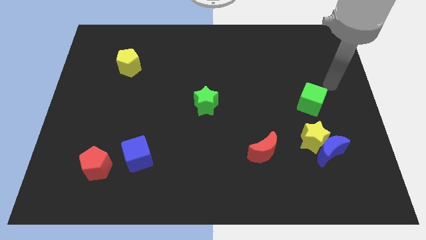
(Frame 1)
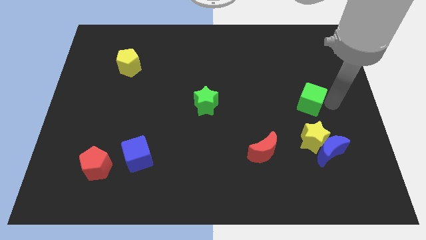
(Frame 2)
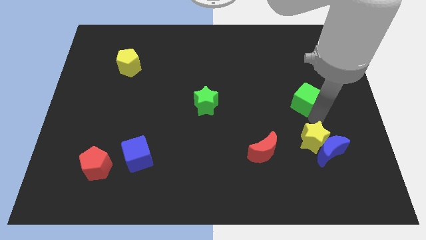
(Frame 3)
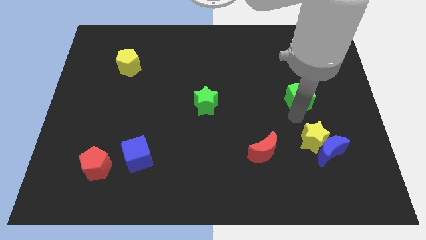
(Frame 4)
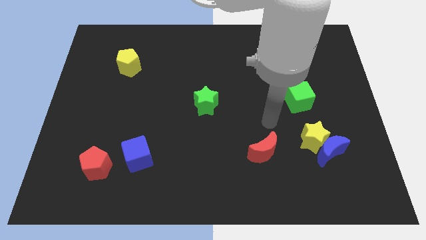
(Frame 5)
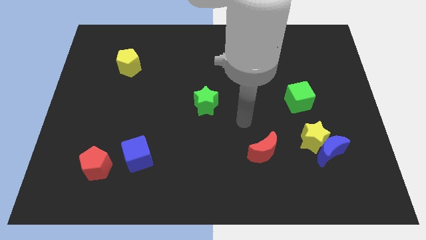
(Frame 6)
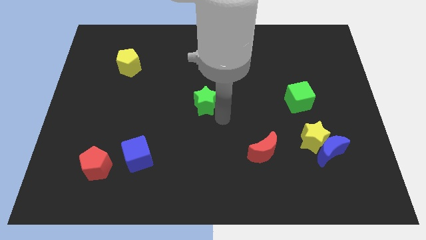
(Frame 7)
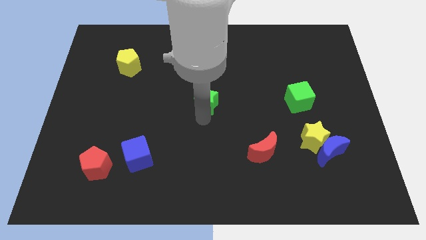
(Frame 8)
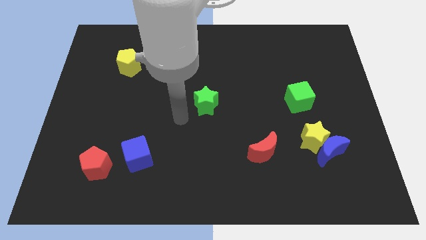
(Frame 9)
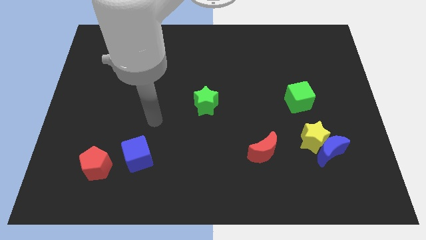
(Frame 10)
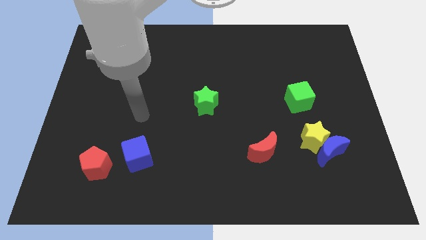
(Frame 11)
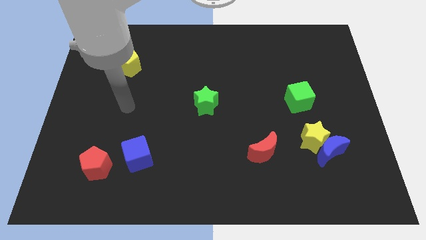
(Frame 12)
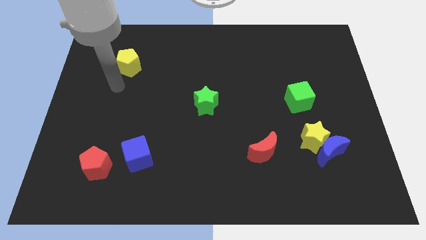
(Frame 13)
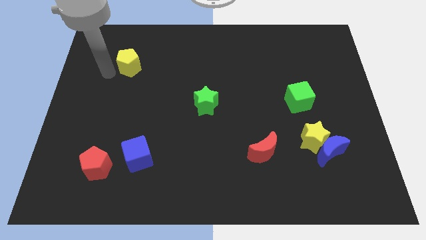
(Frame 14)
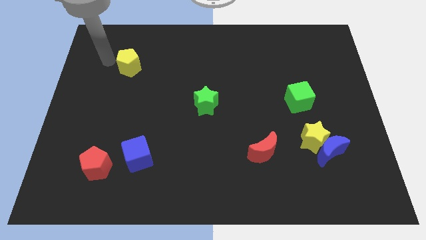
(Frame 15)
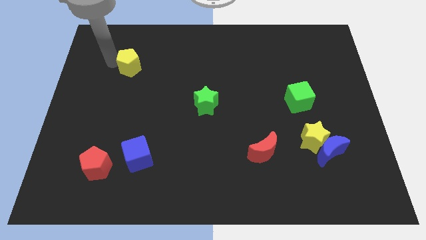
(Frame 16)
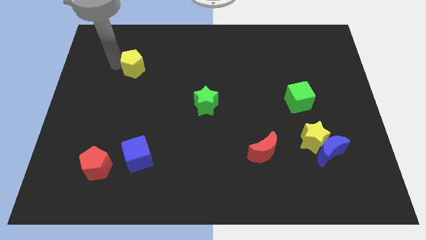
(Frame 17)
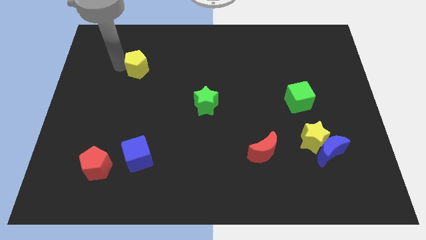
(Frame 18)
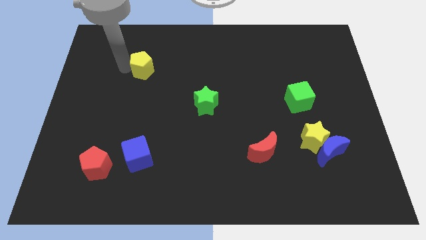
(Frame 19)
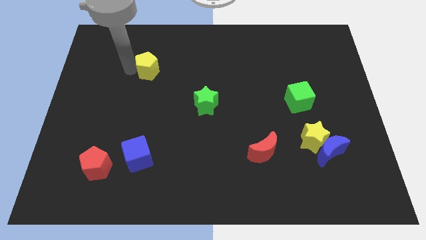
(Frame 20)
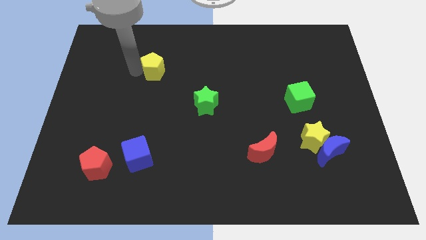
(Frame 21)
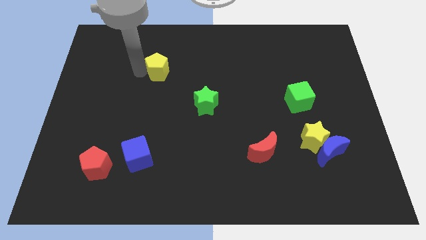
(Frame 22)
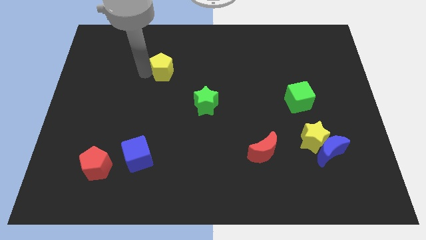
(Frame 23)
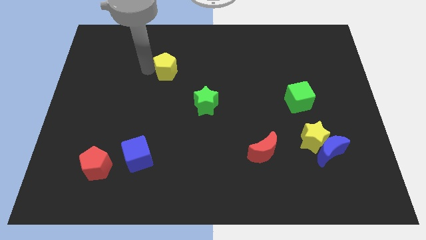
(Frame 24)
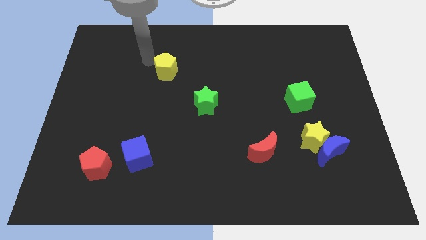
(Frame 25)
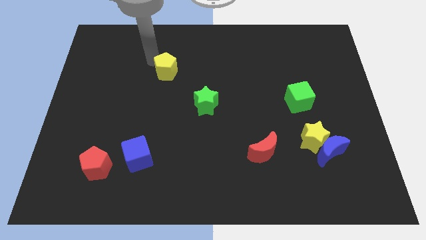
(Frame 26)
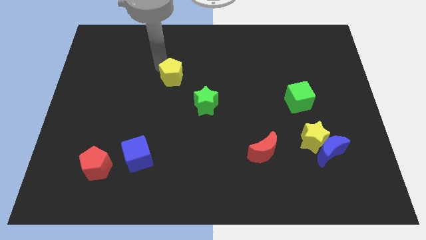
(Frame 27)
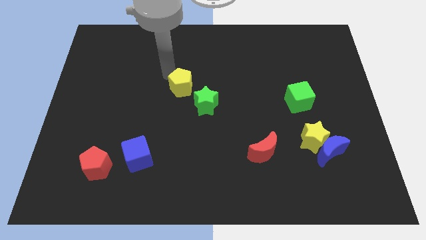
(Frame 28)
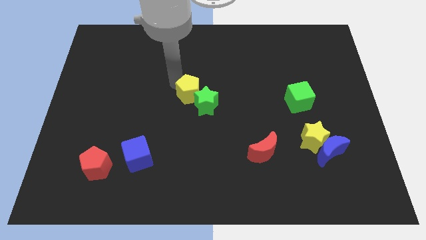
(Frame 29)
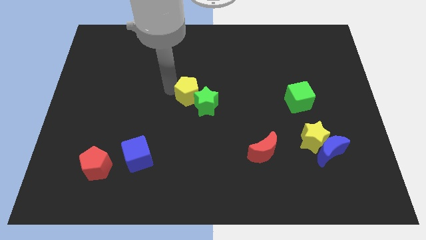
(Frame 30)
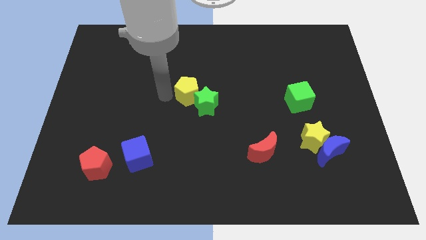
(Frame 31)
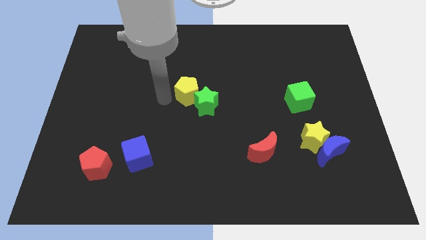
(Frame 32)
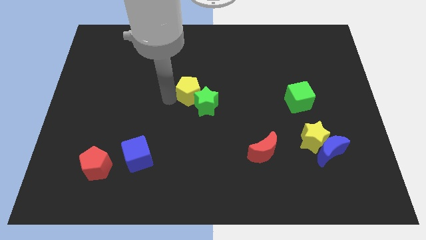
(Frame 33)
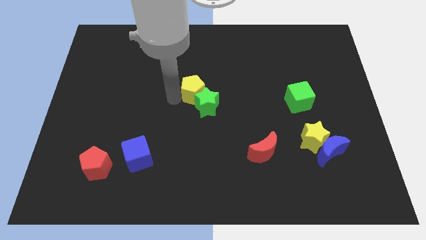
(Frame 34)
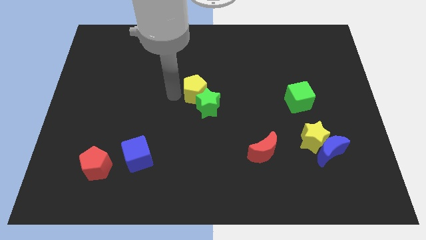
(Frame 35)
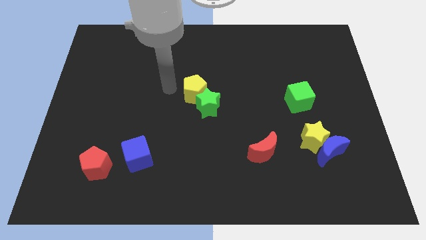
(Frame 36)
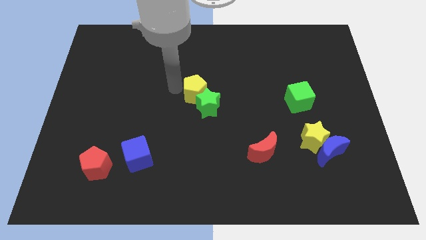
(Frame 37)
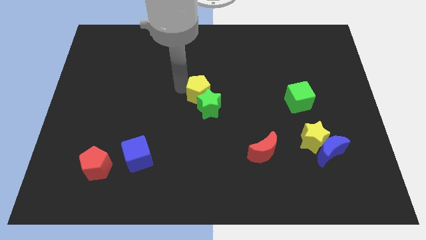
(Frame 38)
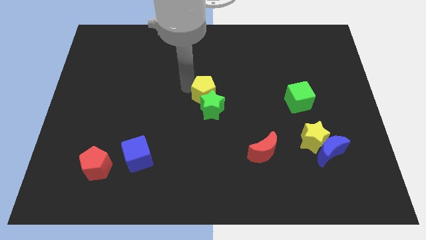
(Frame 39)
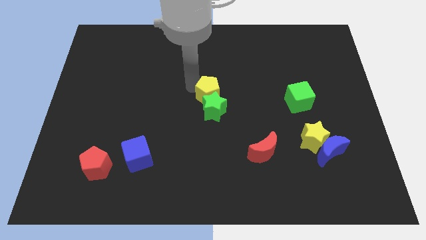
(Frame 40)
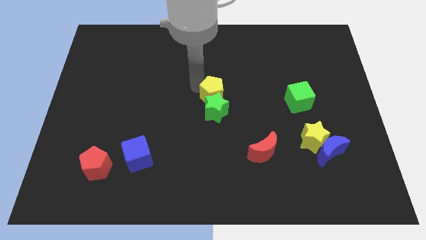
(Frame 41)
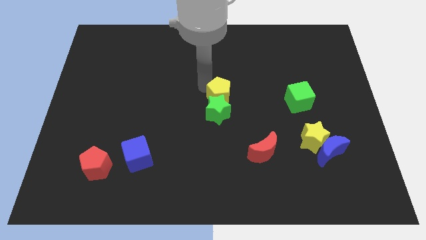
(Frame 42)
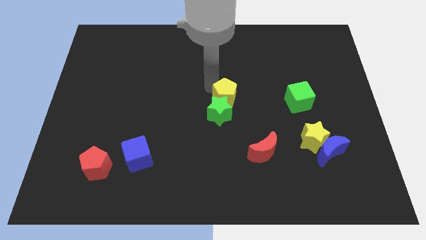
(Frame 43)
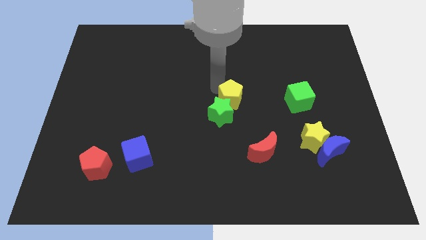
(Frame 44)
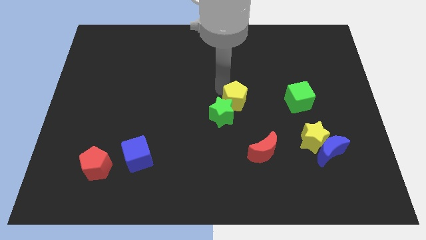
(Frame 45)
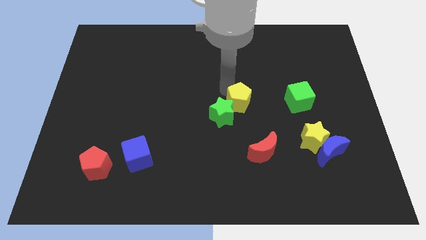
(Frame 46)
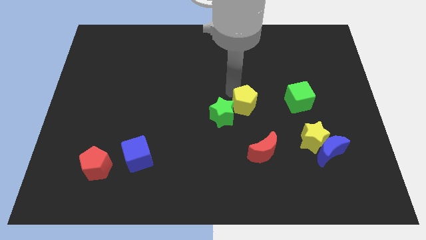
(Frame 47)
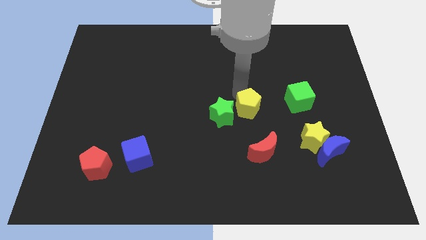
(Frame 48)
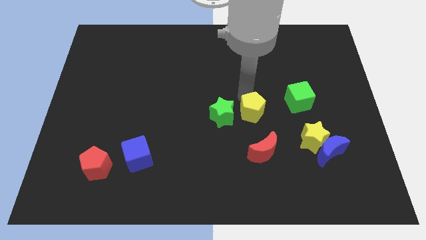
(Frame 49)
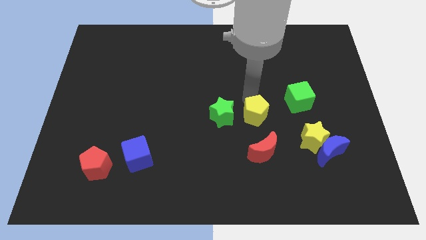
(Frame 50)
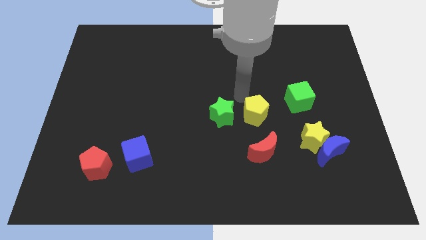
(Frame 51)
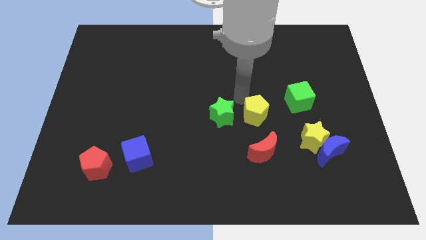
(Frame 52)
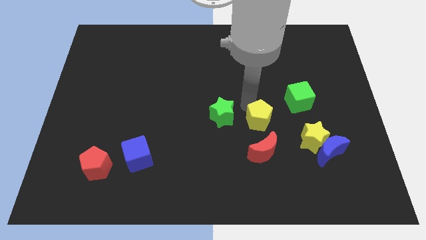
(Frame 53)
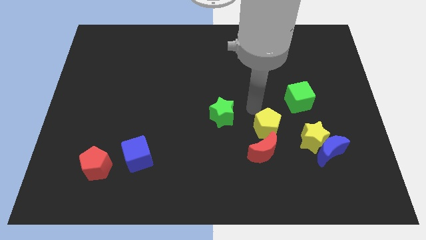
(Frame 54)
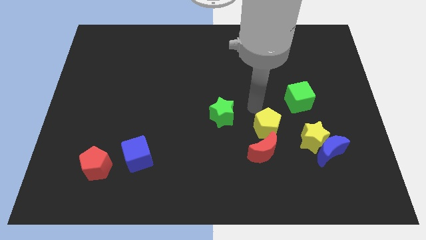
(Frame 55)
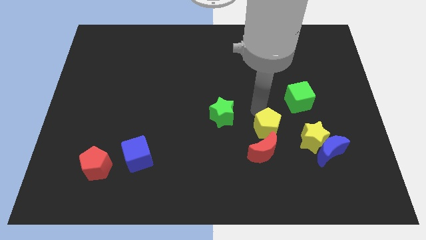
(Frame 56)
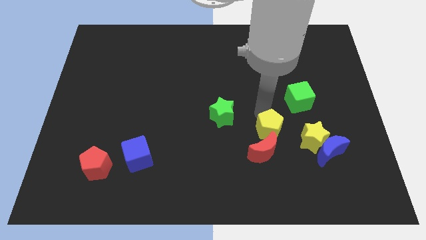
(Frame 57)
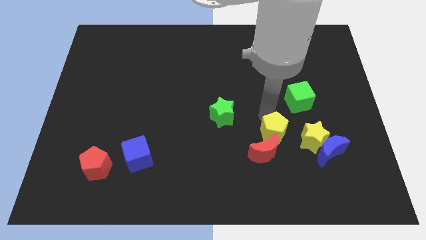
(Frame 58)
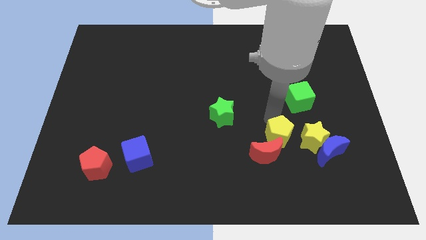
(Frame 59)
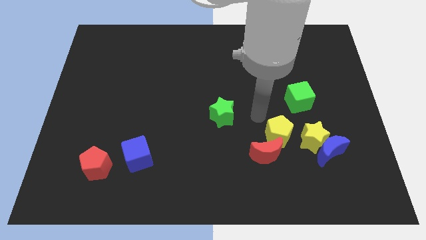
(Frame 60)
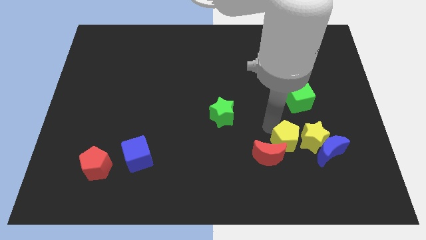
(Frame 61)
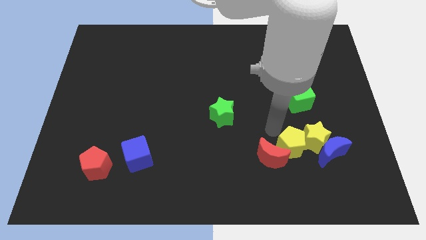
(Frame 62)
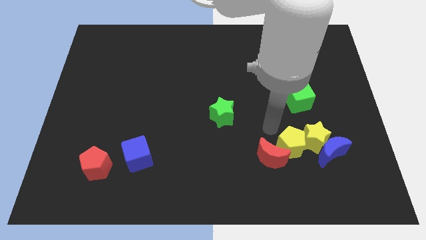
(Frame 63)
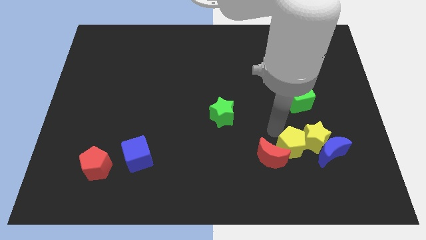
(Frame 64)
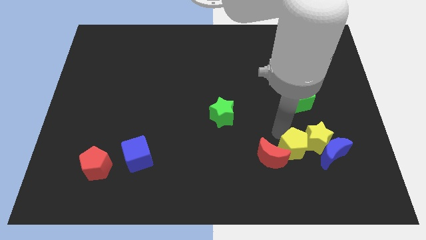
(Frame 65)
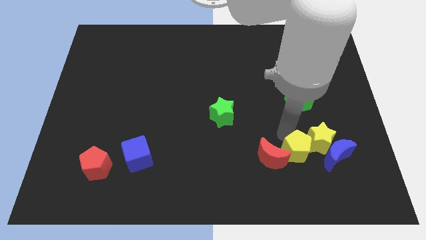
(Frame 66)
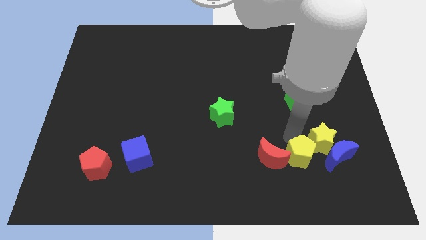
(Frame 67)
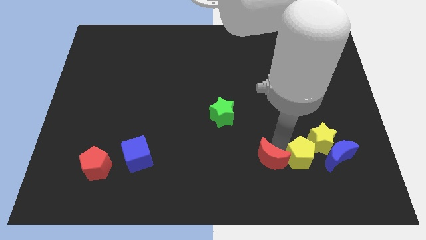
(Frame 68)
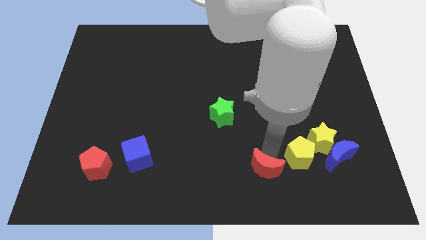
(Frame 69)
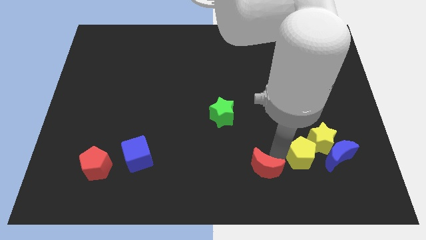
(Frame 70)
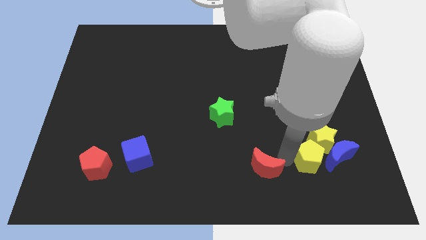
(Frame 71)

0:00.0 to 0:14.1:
move the yellow pentagon next to the blue moon
